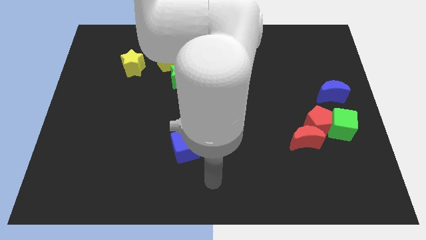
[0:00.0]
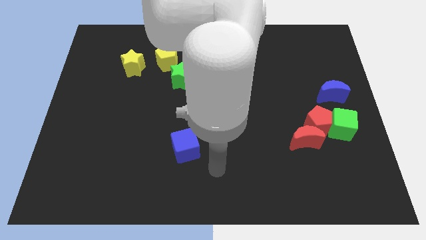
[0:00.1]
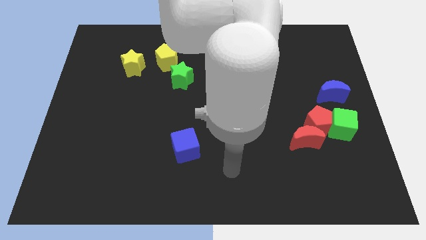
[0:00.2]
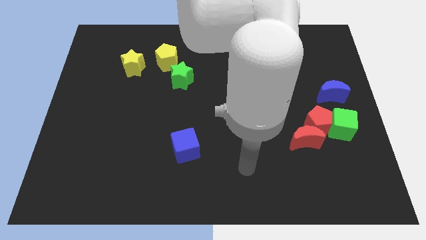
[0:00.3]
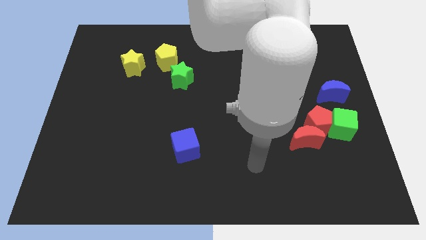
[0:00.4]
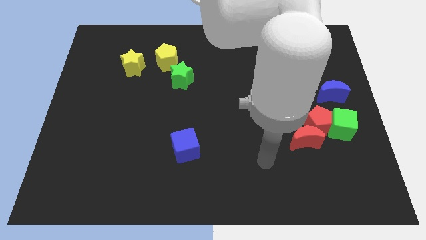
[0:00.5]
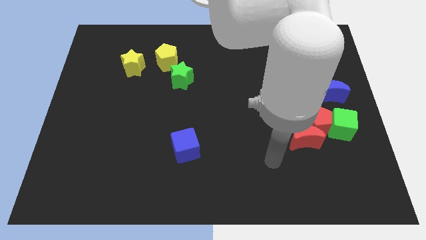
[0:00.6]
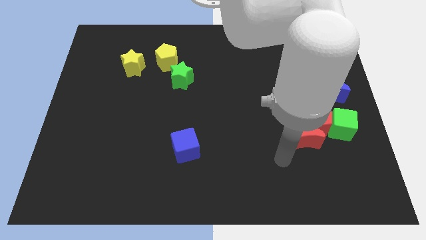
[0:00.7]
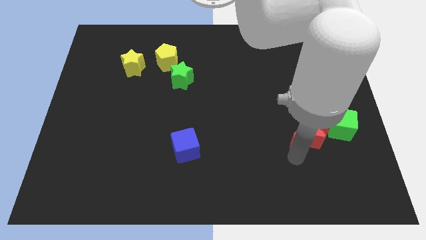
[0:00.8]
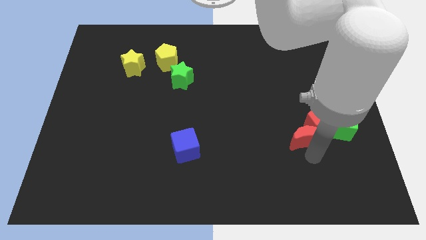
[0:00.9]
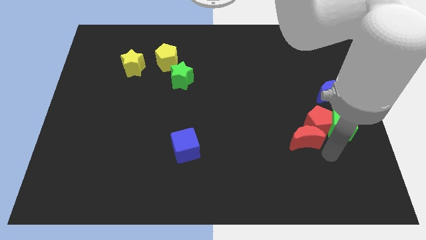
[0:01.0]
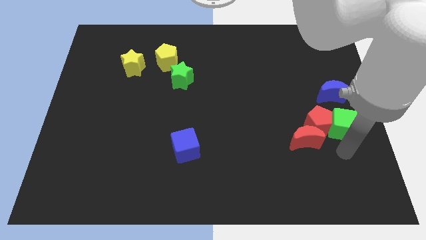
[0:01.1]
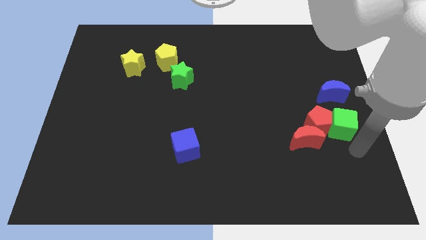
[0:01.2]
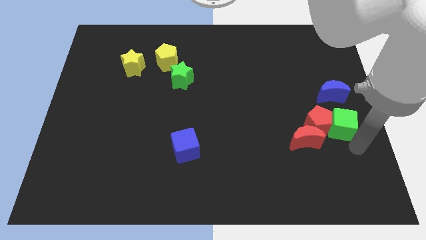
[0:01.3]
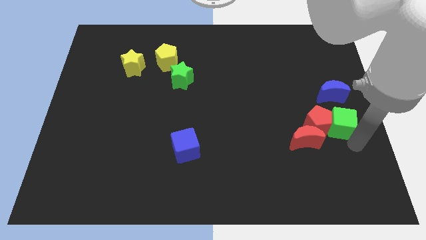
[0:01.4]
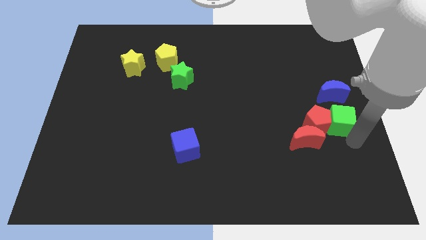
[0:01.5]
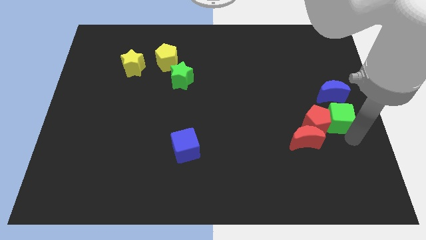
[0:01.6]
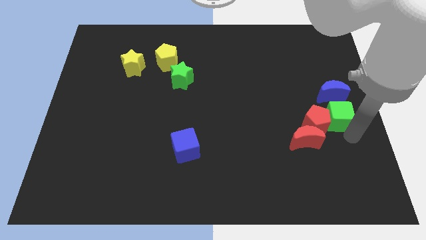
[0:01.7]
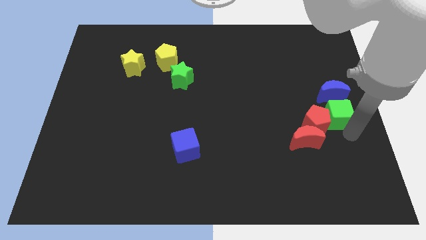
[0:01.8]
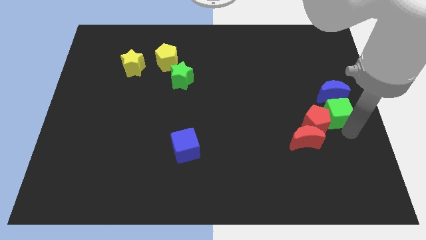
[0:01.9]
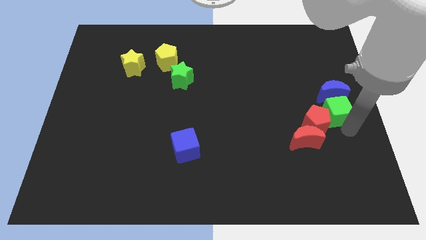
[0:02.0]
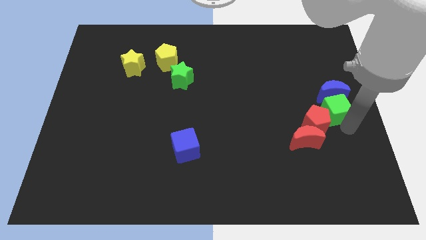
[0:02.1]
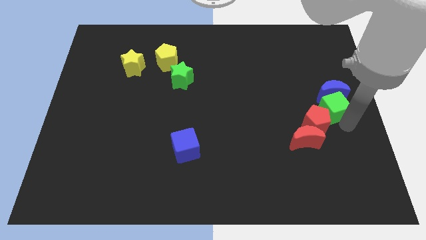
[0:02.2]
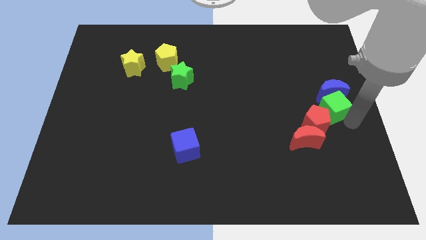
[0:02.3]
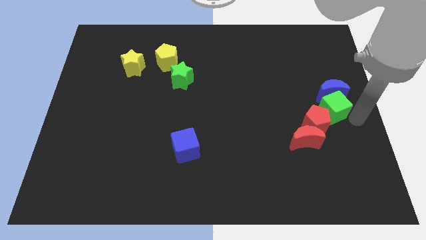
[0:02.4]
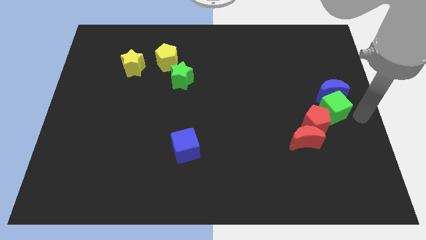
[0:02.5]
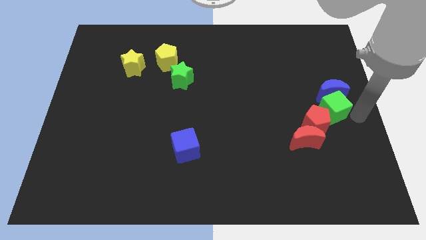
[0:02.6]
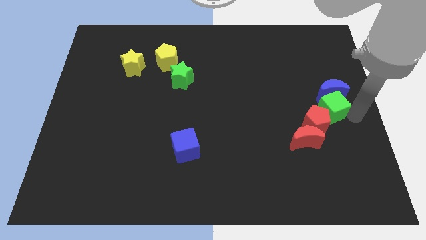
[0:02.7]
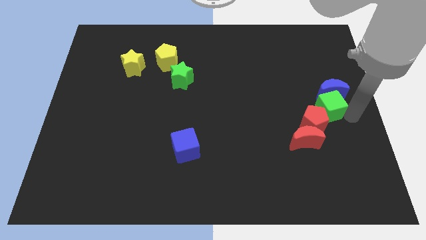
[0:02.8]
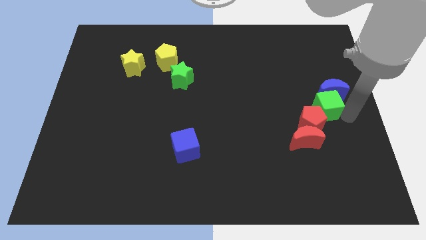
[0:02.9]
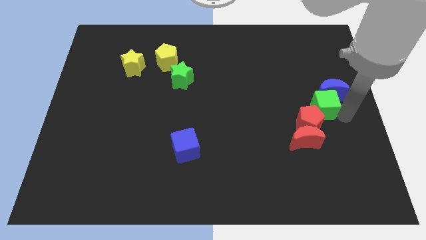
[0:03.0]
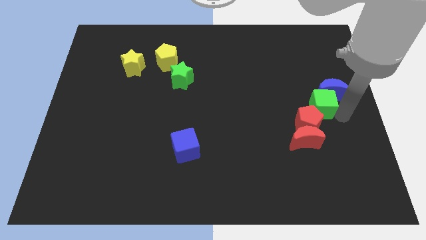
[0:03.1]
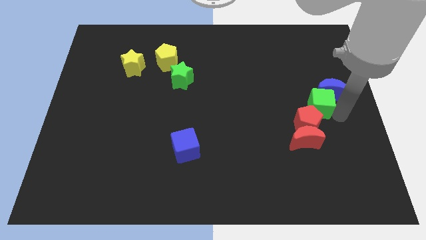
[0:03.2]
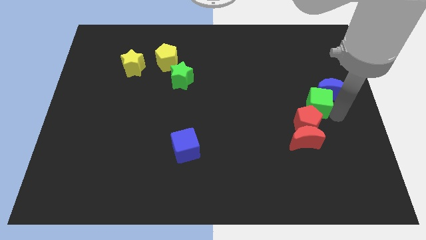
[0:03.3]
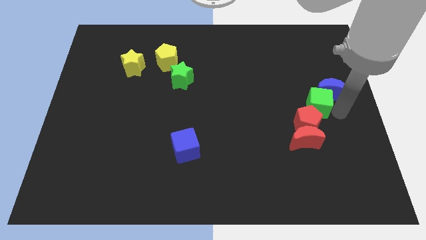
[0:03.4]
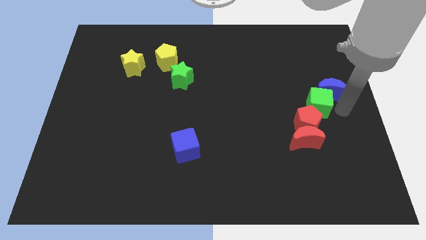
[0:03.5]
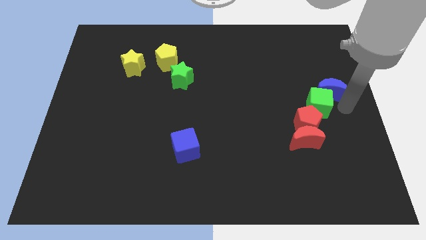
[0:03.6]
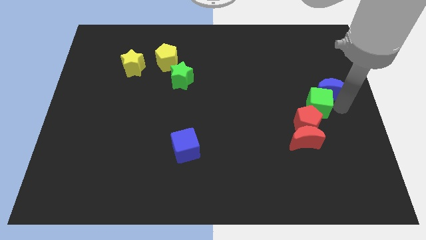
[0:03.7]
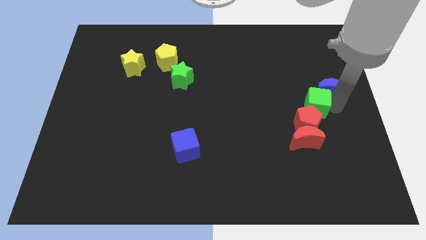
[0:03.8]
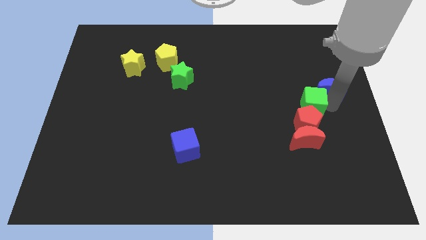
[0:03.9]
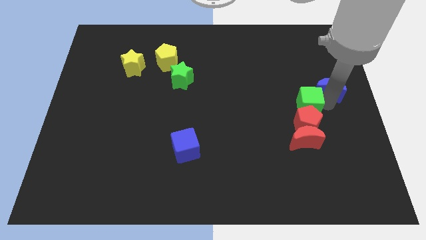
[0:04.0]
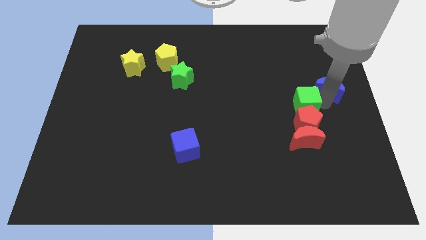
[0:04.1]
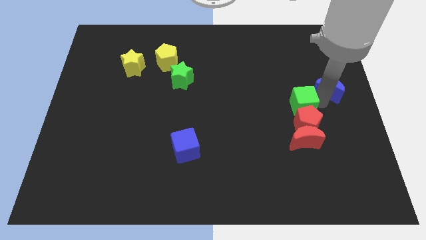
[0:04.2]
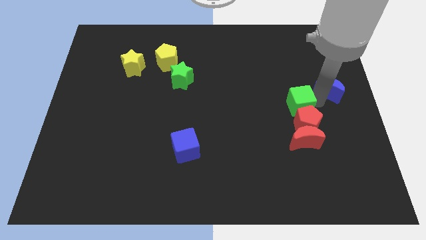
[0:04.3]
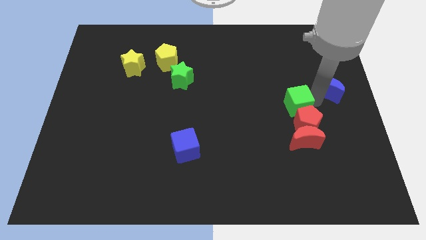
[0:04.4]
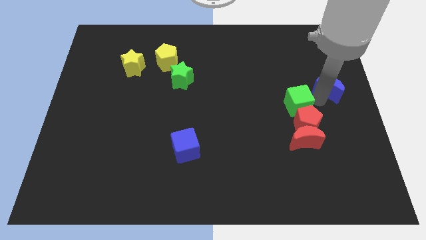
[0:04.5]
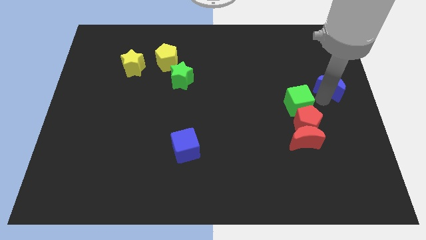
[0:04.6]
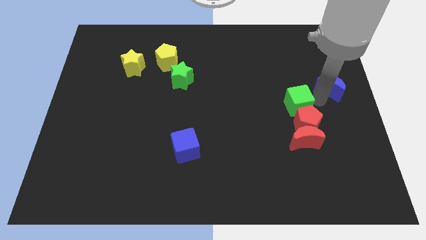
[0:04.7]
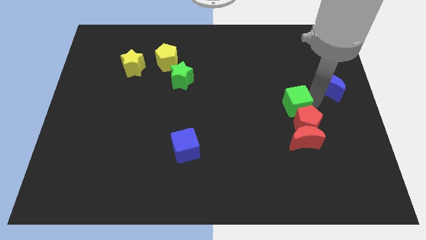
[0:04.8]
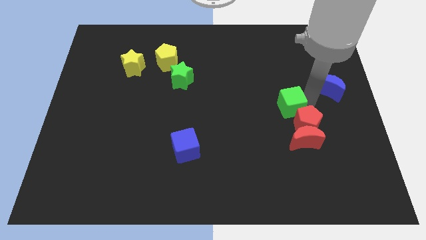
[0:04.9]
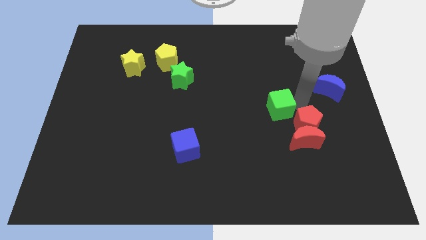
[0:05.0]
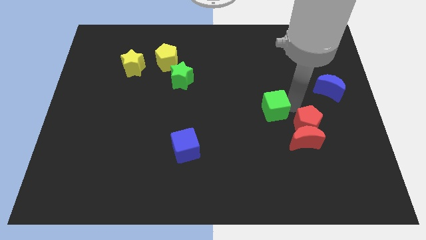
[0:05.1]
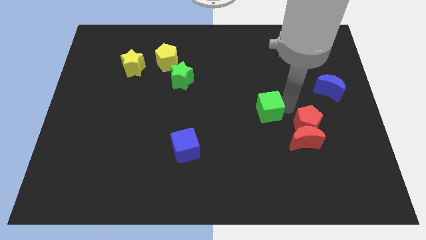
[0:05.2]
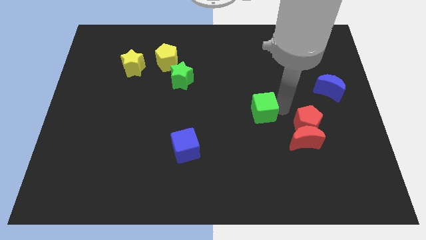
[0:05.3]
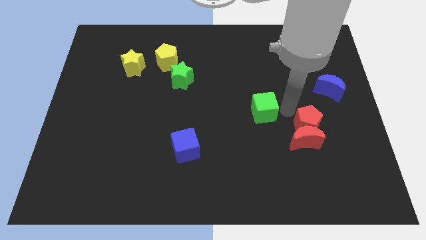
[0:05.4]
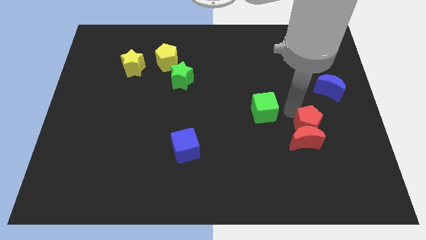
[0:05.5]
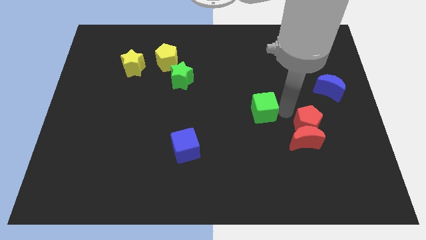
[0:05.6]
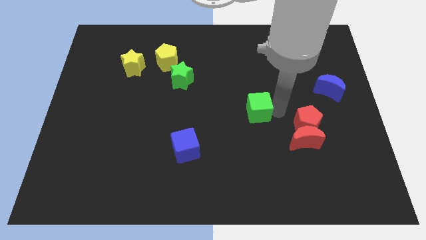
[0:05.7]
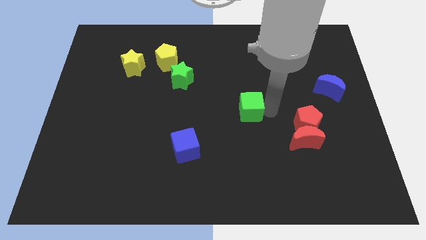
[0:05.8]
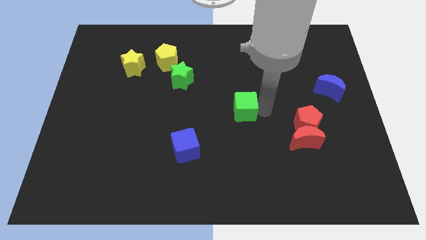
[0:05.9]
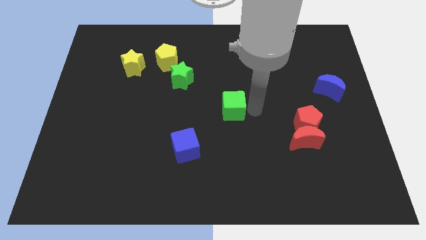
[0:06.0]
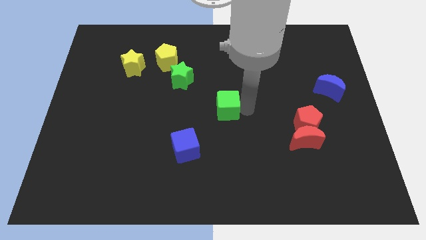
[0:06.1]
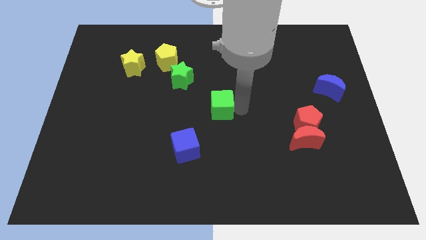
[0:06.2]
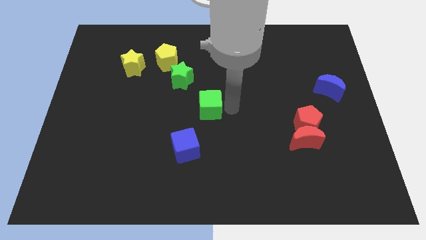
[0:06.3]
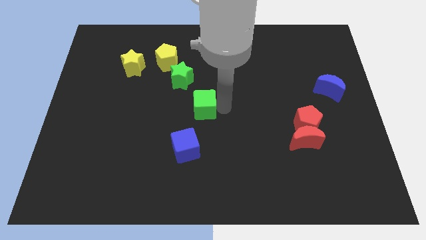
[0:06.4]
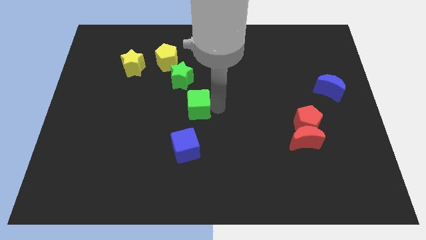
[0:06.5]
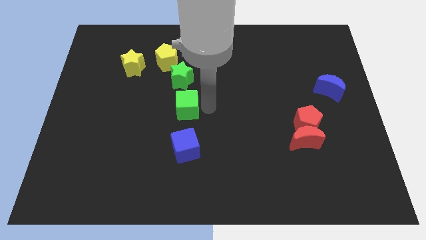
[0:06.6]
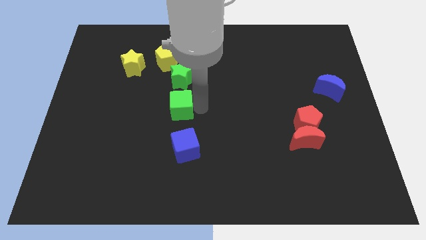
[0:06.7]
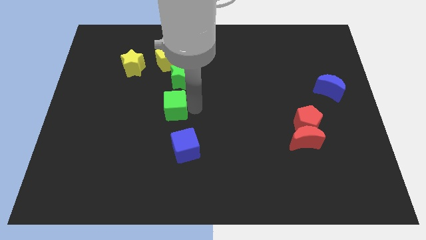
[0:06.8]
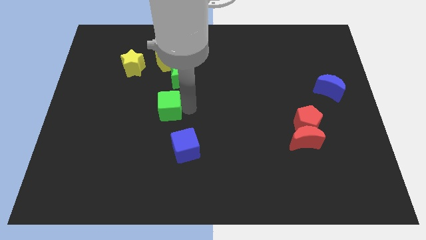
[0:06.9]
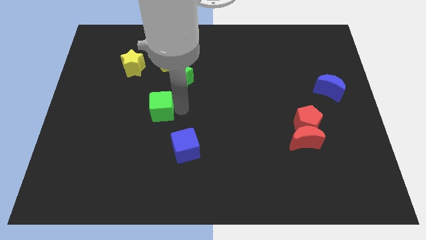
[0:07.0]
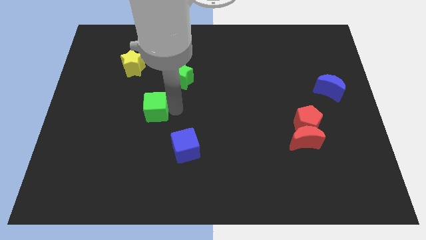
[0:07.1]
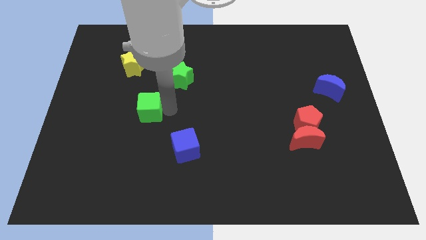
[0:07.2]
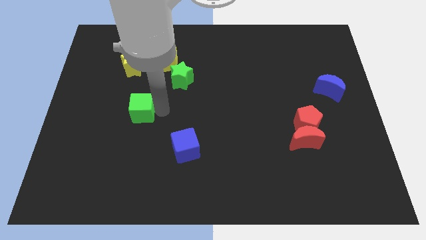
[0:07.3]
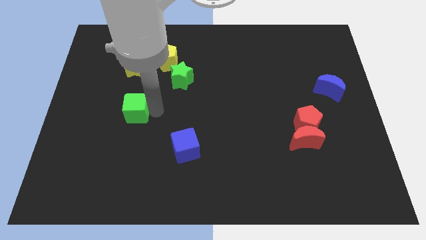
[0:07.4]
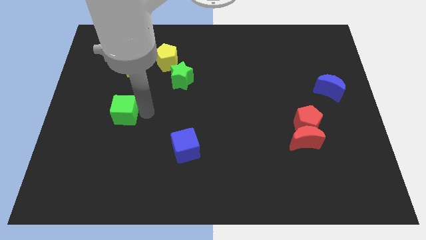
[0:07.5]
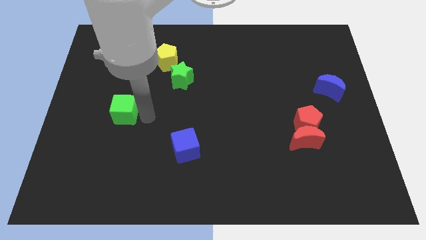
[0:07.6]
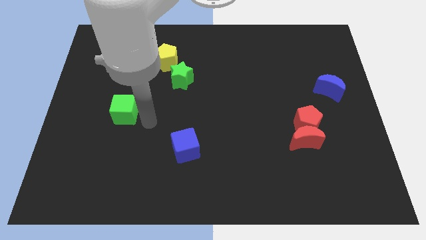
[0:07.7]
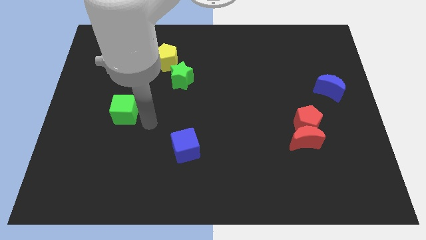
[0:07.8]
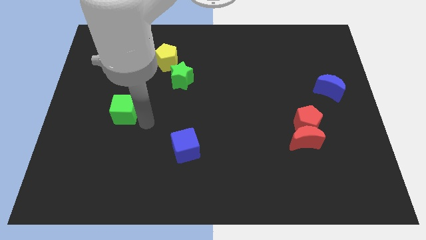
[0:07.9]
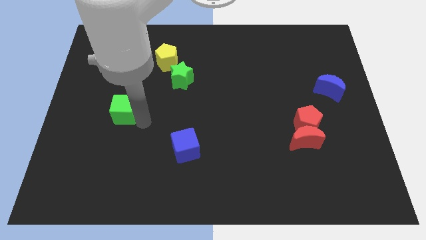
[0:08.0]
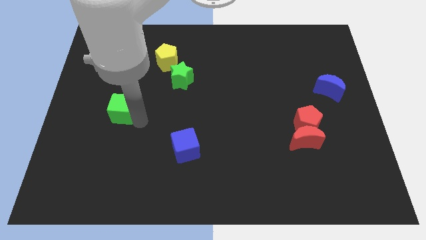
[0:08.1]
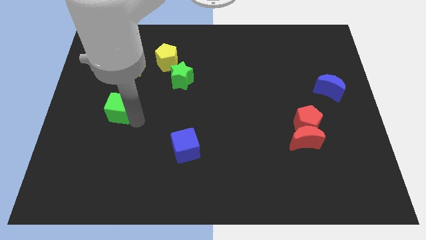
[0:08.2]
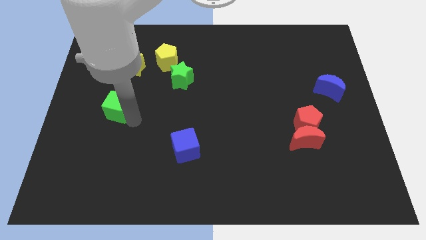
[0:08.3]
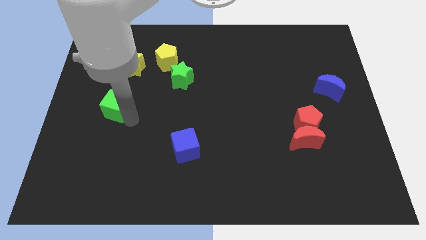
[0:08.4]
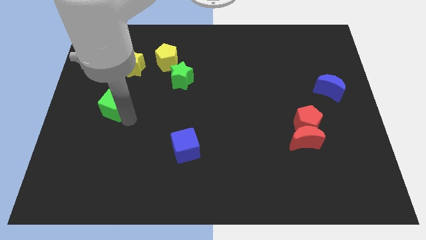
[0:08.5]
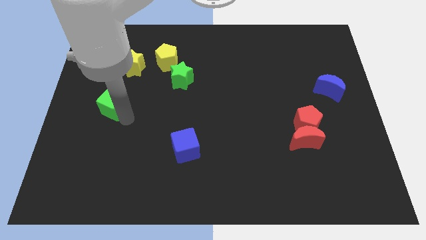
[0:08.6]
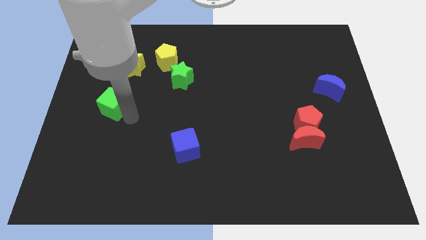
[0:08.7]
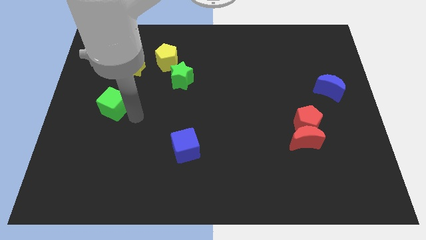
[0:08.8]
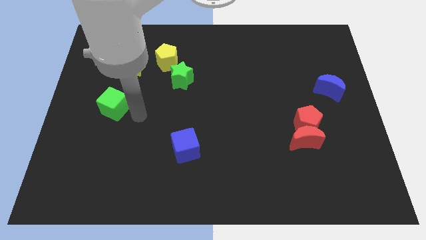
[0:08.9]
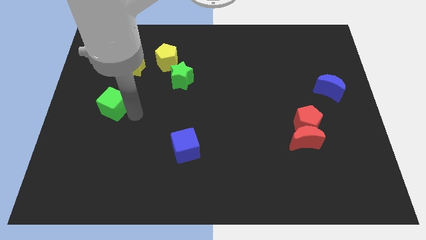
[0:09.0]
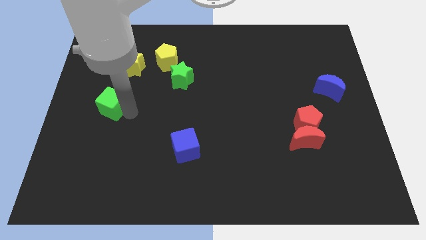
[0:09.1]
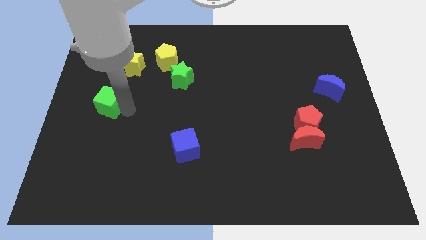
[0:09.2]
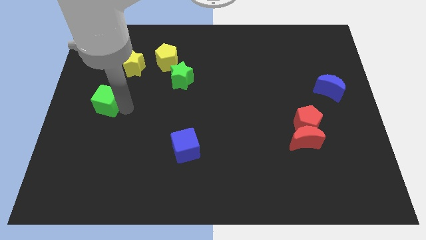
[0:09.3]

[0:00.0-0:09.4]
slide the green cube to the left side
